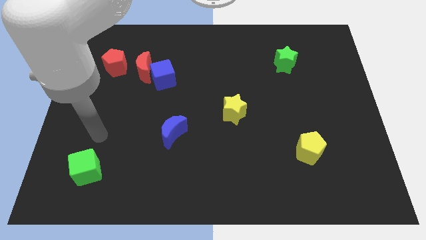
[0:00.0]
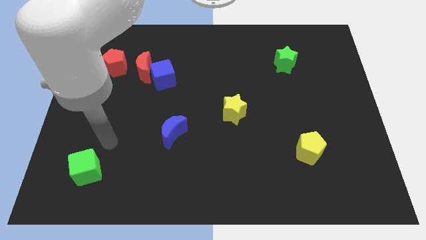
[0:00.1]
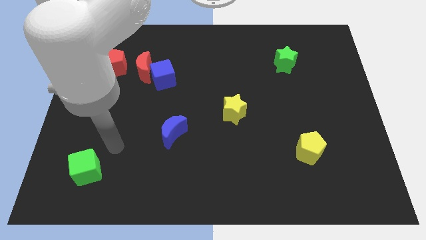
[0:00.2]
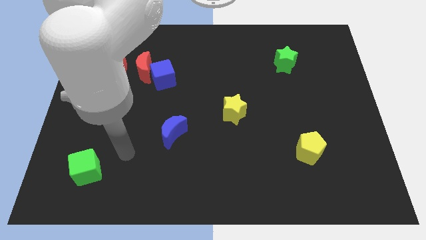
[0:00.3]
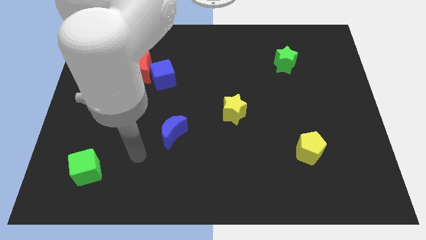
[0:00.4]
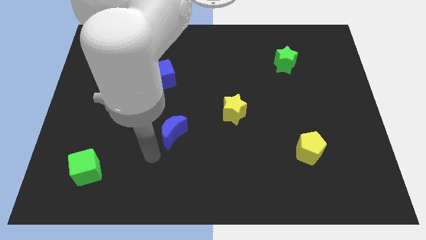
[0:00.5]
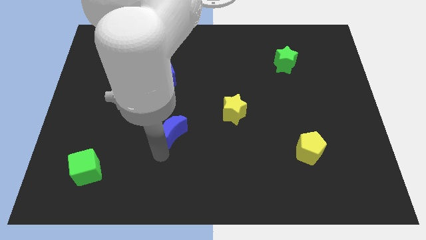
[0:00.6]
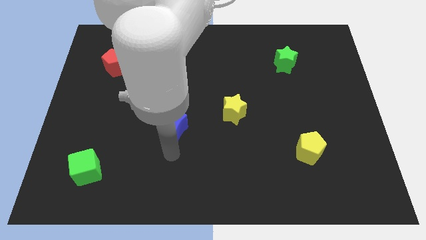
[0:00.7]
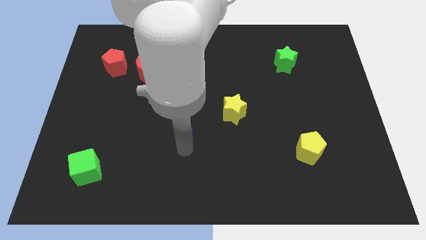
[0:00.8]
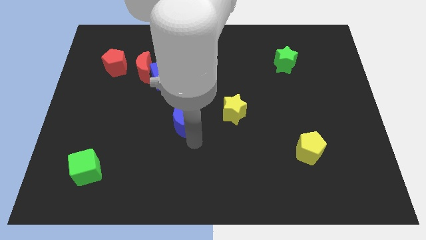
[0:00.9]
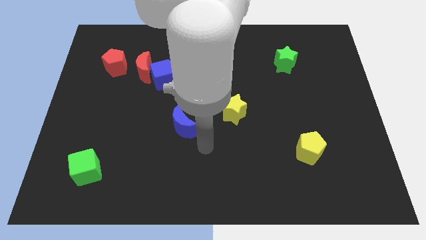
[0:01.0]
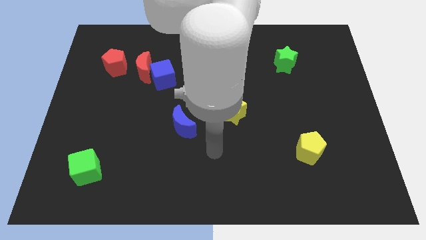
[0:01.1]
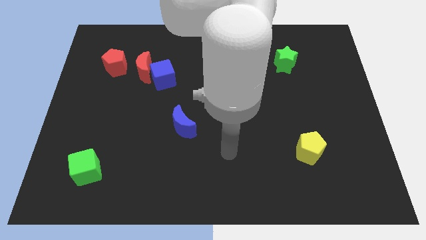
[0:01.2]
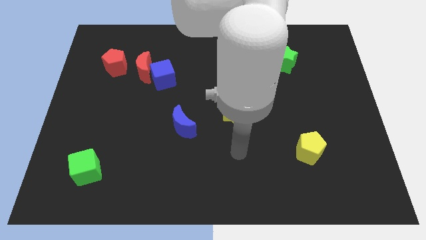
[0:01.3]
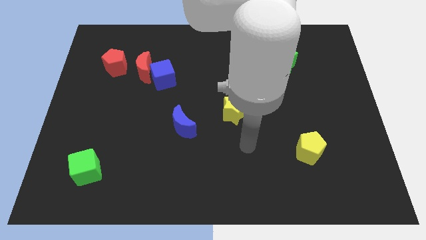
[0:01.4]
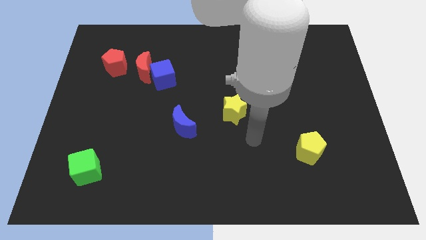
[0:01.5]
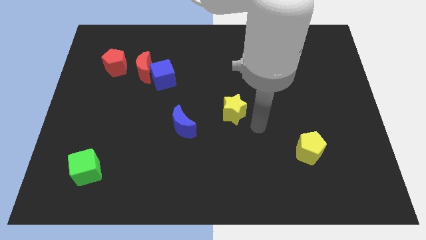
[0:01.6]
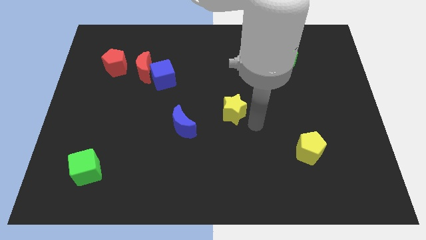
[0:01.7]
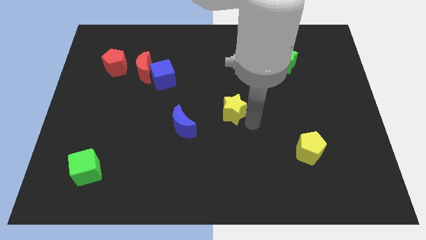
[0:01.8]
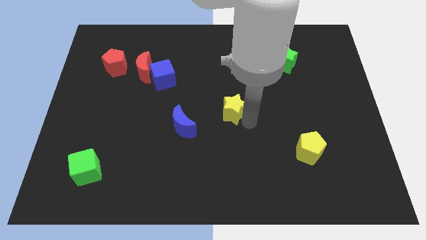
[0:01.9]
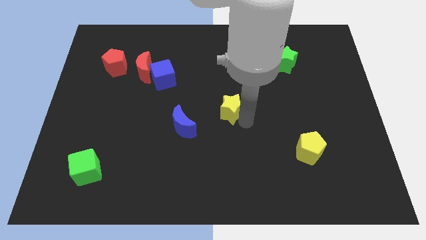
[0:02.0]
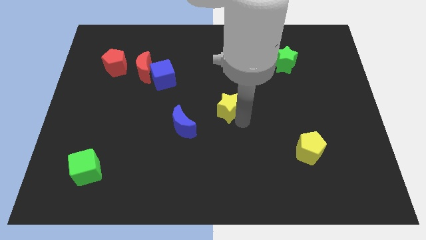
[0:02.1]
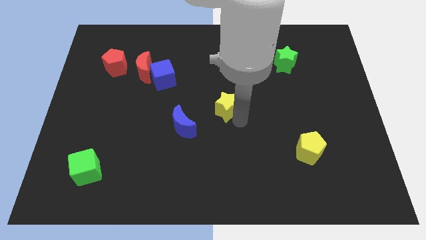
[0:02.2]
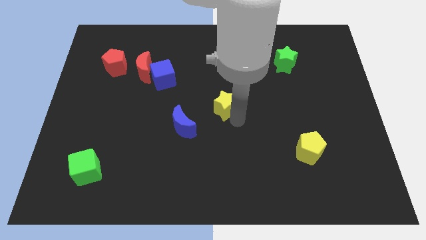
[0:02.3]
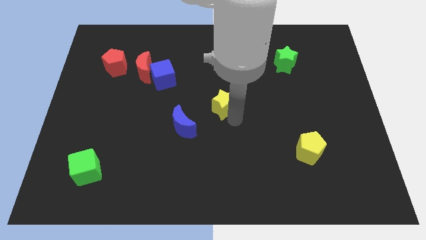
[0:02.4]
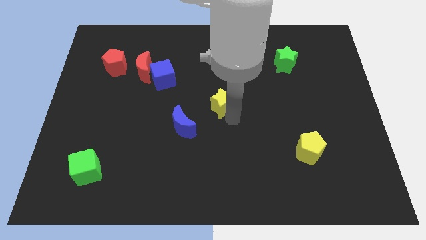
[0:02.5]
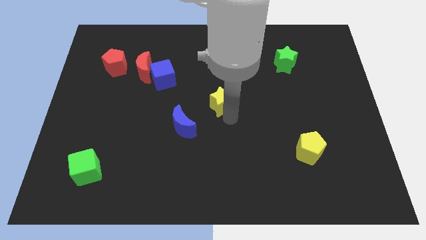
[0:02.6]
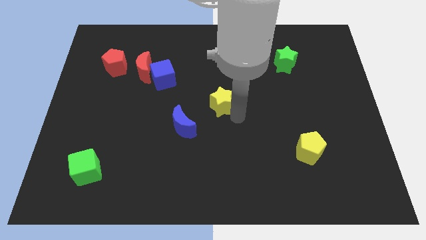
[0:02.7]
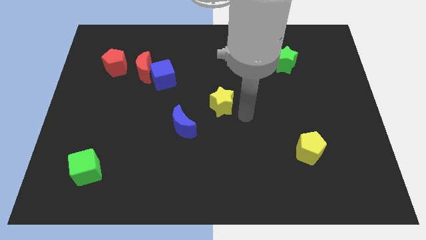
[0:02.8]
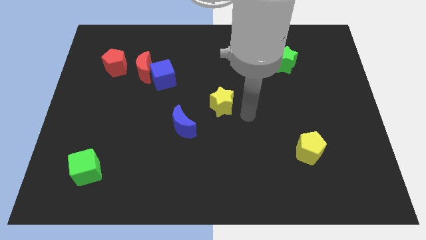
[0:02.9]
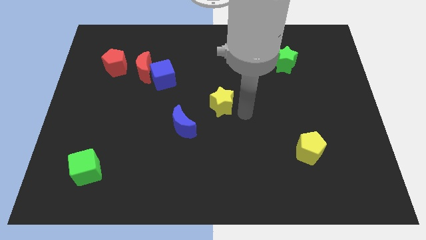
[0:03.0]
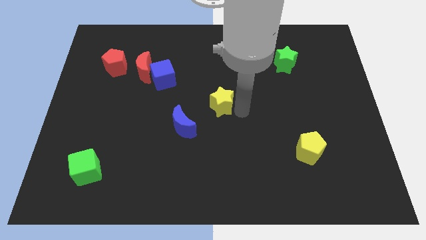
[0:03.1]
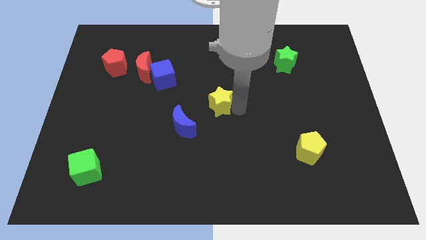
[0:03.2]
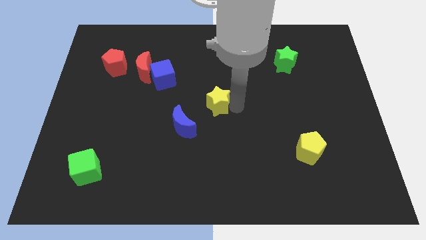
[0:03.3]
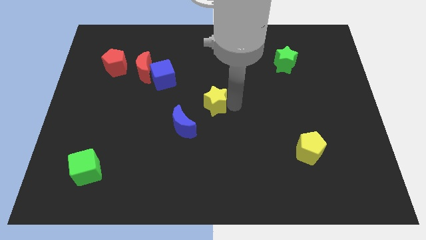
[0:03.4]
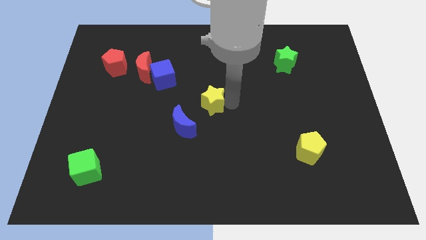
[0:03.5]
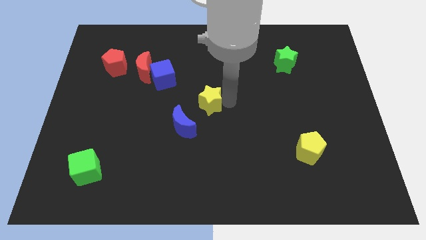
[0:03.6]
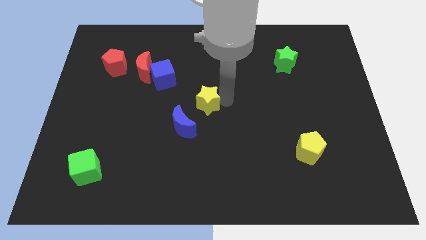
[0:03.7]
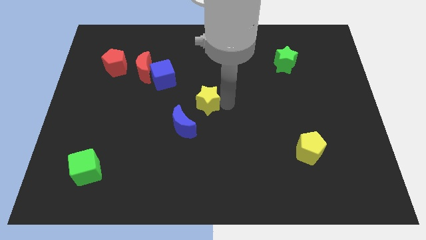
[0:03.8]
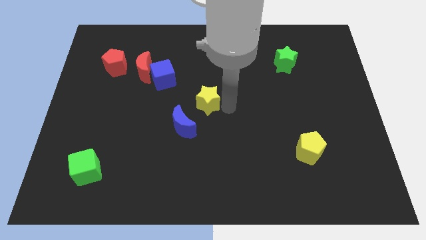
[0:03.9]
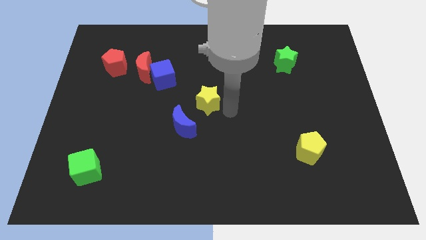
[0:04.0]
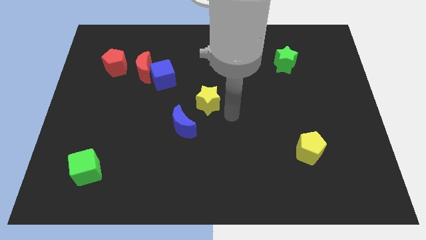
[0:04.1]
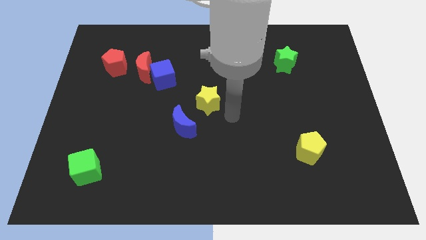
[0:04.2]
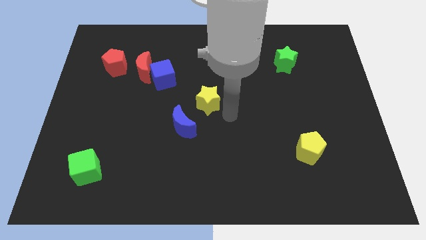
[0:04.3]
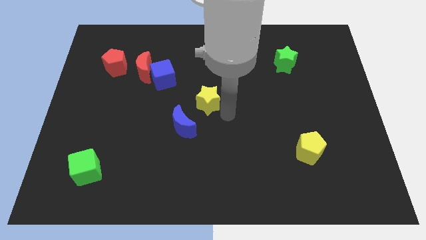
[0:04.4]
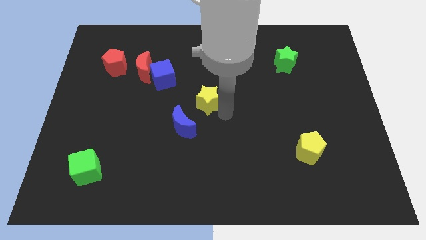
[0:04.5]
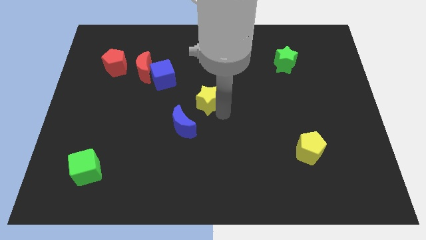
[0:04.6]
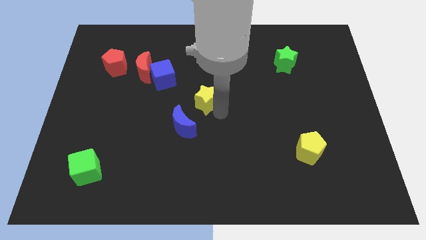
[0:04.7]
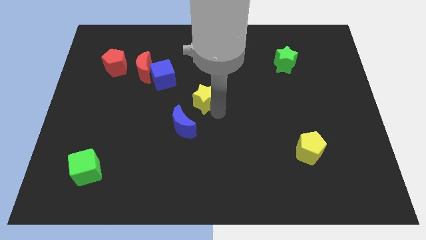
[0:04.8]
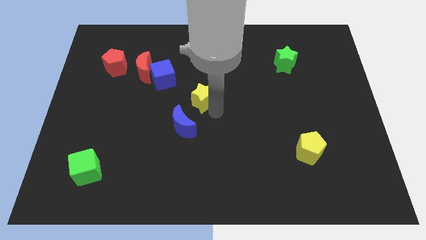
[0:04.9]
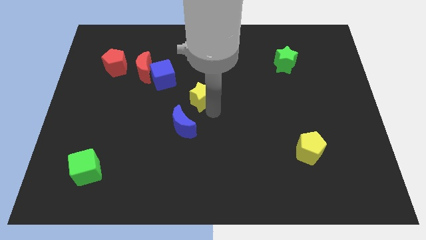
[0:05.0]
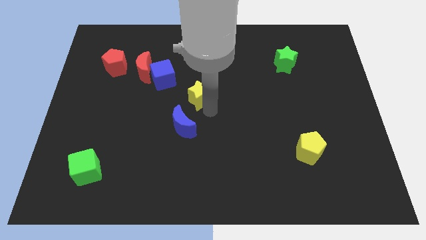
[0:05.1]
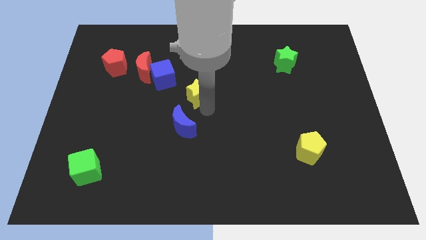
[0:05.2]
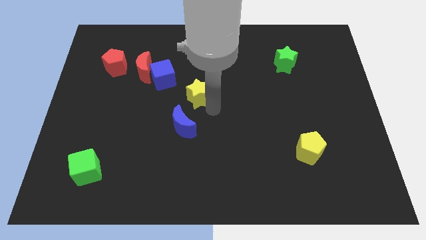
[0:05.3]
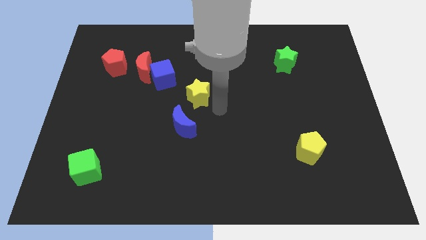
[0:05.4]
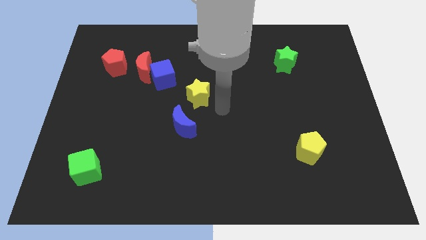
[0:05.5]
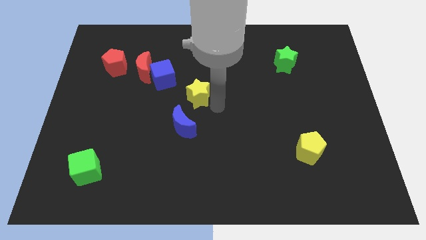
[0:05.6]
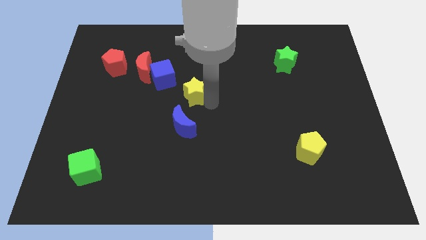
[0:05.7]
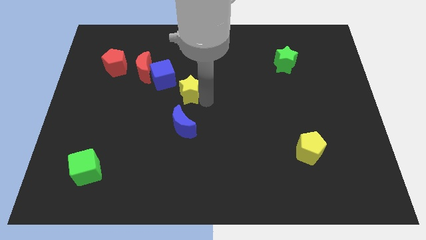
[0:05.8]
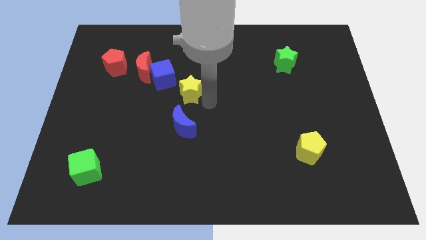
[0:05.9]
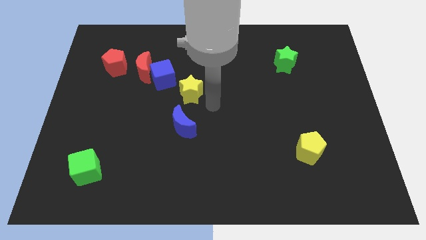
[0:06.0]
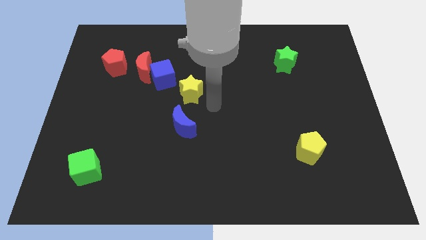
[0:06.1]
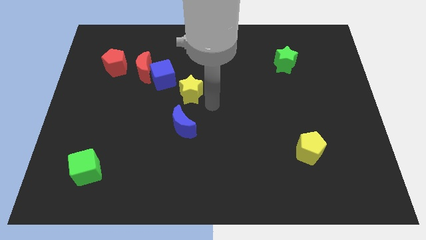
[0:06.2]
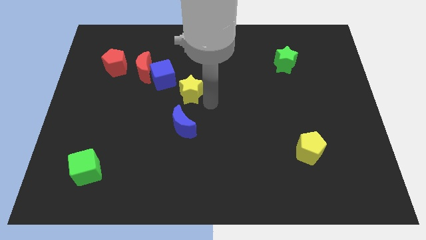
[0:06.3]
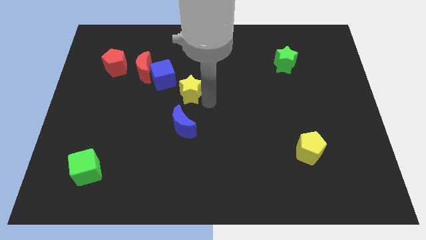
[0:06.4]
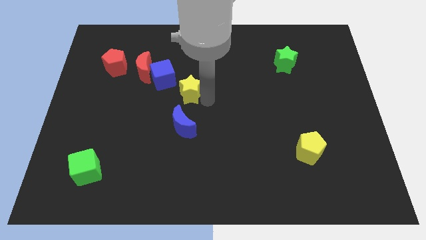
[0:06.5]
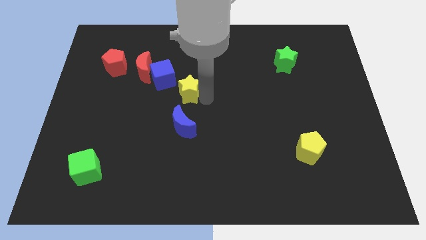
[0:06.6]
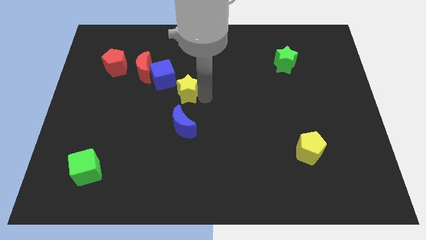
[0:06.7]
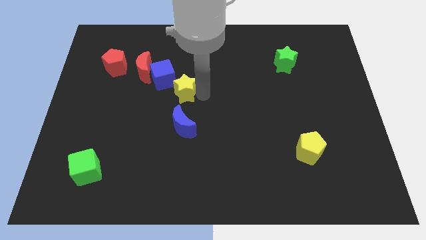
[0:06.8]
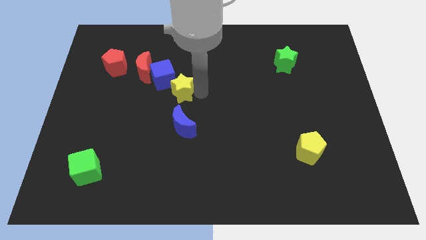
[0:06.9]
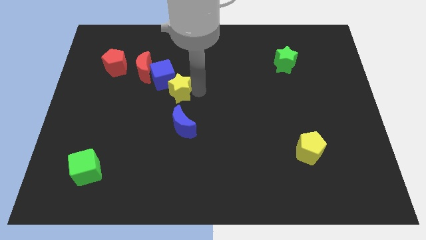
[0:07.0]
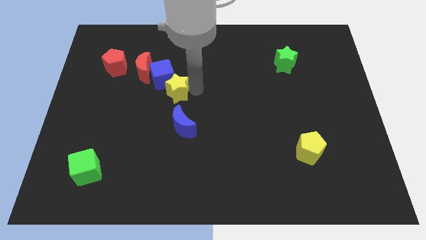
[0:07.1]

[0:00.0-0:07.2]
slide the yellow star close to the blue cube

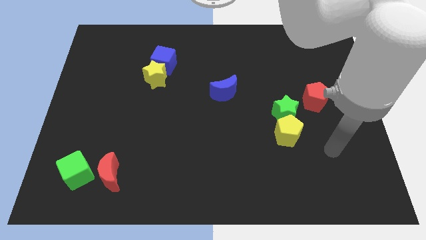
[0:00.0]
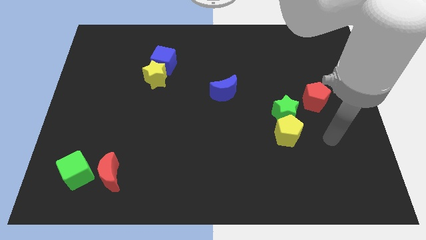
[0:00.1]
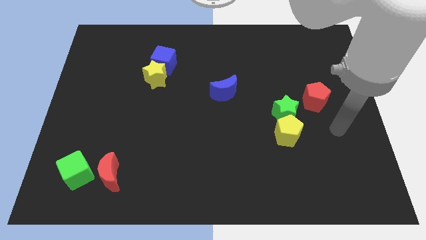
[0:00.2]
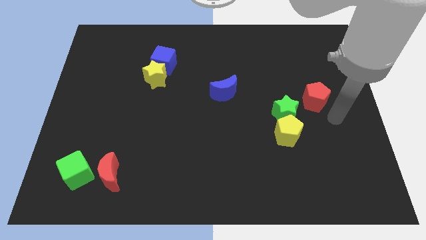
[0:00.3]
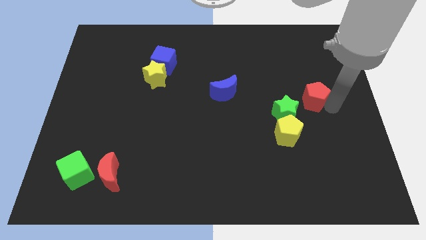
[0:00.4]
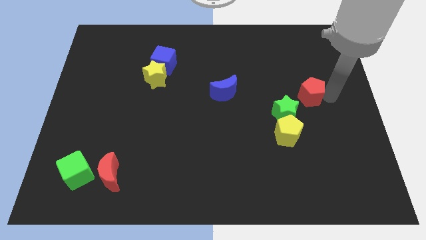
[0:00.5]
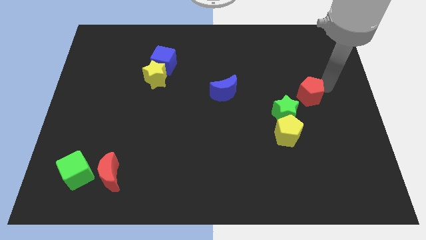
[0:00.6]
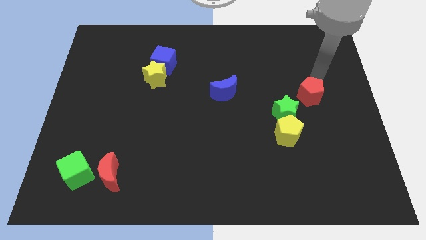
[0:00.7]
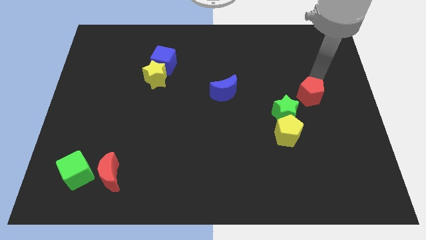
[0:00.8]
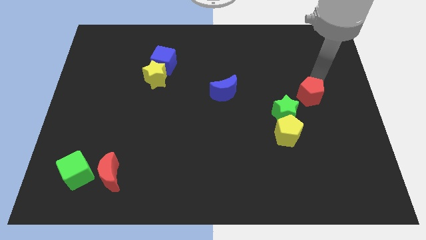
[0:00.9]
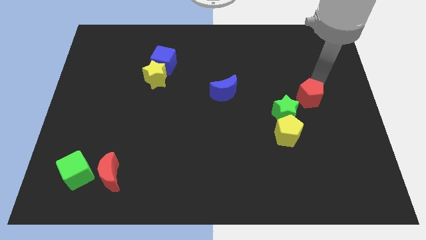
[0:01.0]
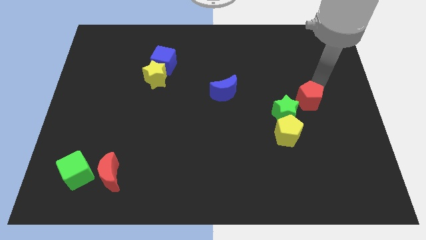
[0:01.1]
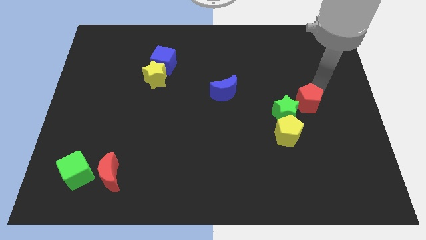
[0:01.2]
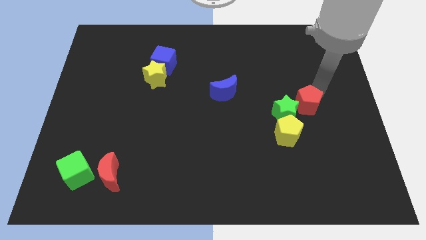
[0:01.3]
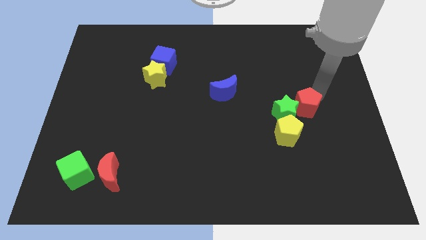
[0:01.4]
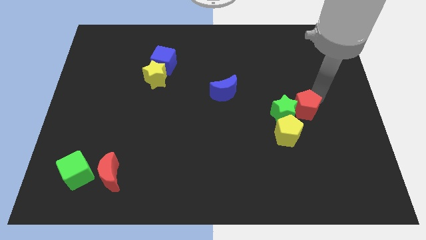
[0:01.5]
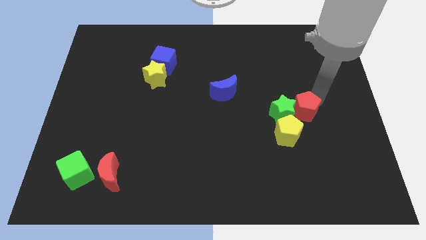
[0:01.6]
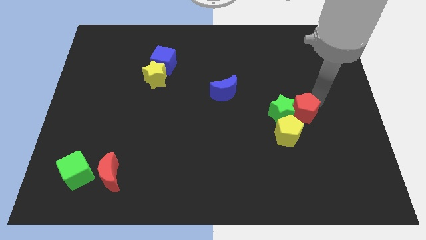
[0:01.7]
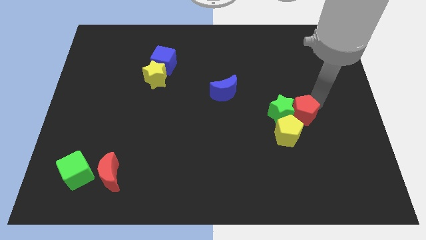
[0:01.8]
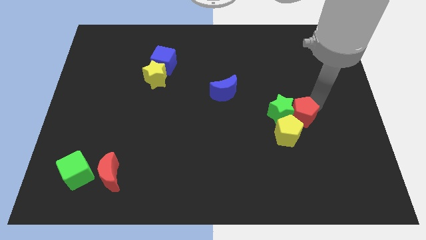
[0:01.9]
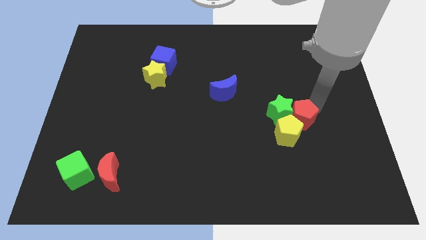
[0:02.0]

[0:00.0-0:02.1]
move the red pentagon next to the yellow pentagon
